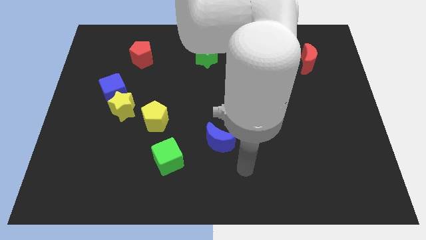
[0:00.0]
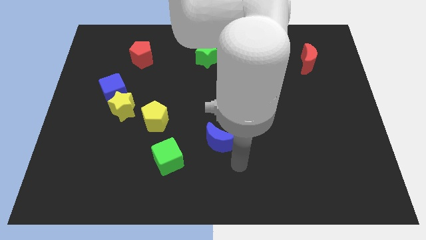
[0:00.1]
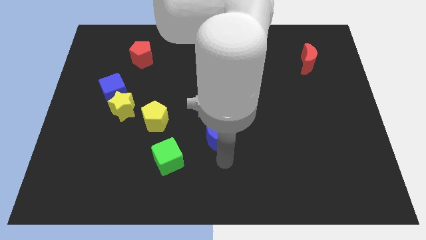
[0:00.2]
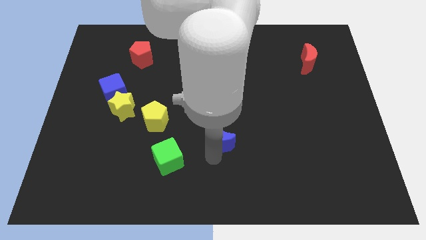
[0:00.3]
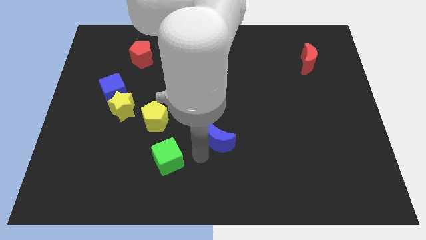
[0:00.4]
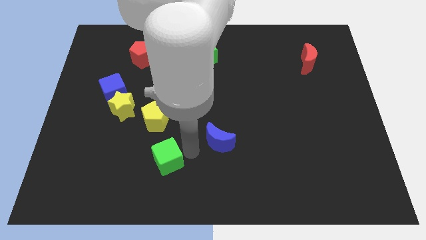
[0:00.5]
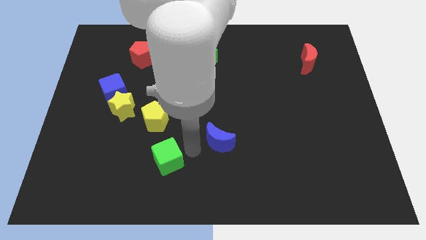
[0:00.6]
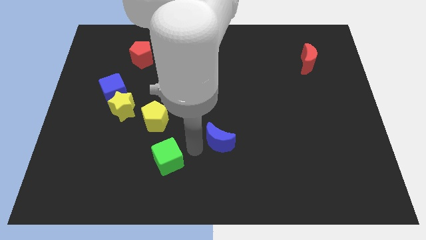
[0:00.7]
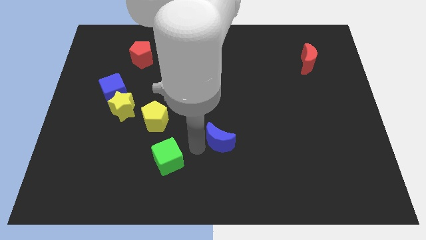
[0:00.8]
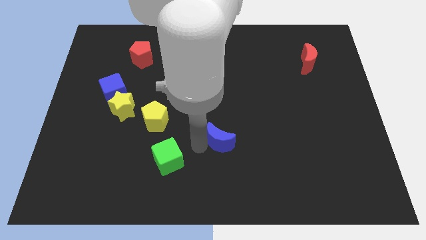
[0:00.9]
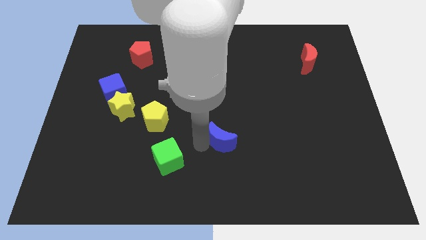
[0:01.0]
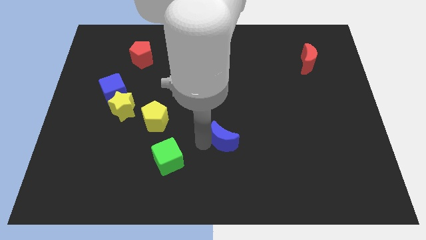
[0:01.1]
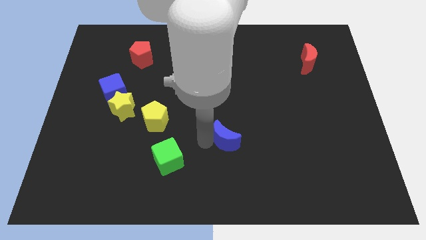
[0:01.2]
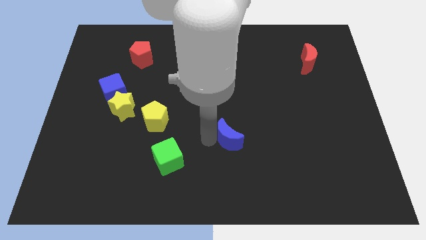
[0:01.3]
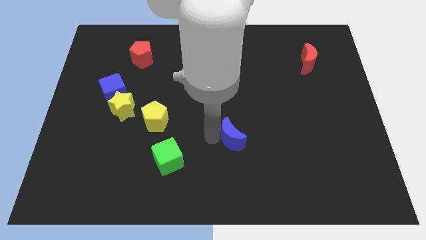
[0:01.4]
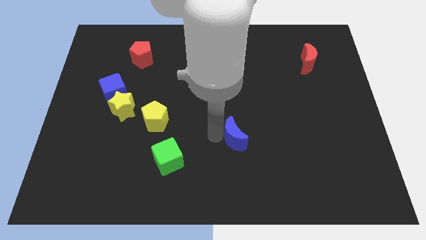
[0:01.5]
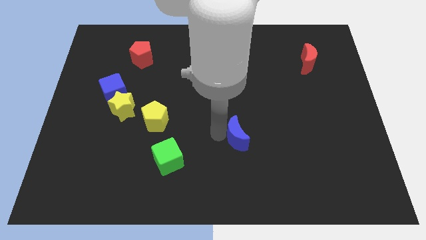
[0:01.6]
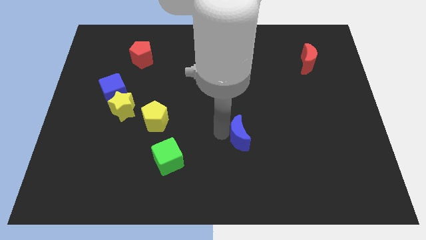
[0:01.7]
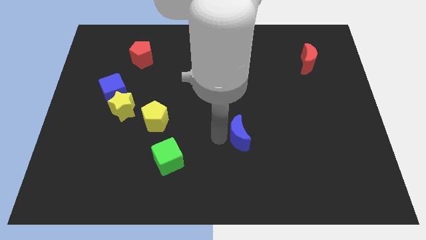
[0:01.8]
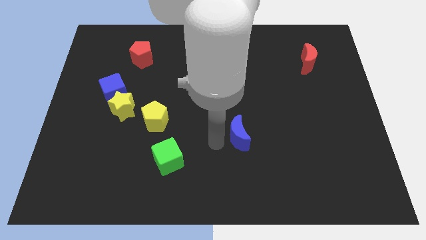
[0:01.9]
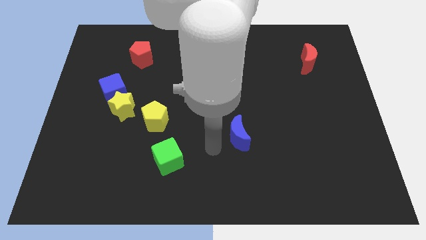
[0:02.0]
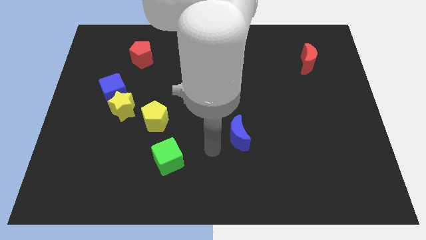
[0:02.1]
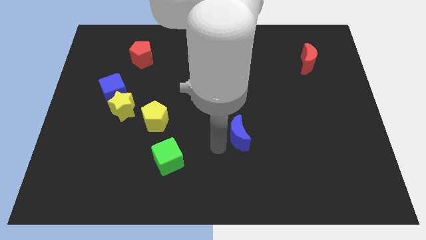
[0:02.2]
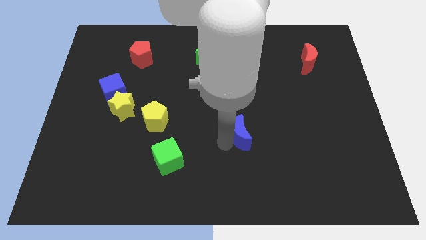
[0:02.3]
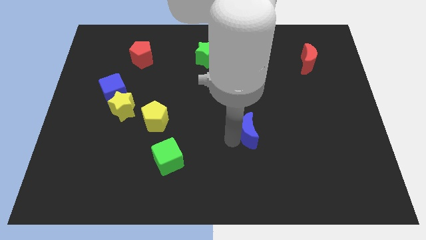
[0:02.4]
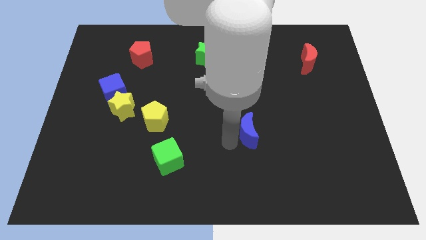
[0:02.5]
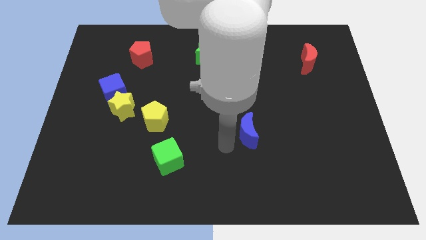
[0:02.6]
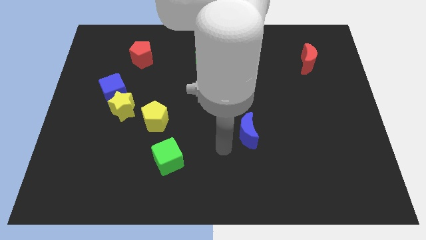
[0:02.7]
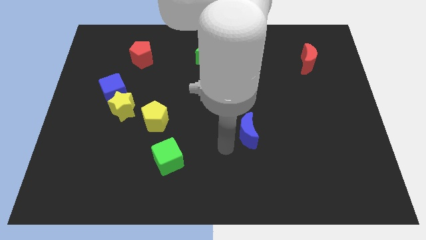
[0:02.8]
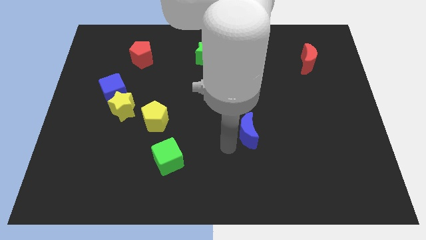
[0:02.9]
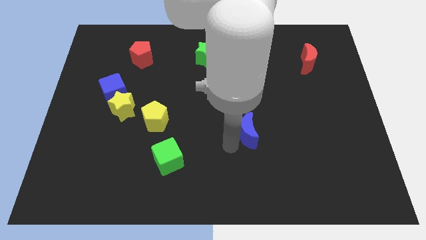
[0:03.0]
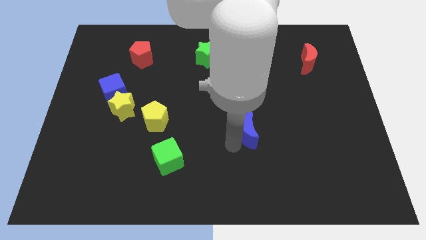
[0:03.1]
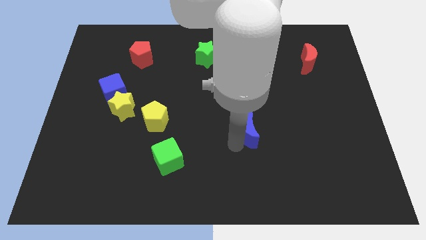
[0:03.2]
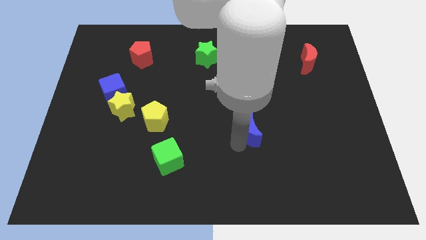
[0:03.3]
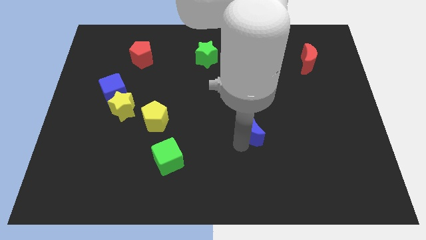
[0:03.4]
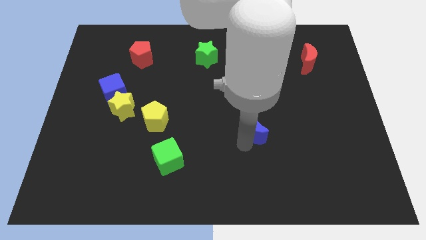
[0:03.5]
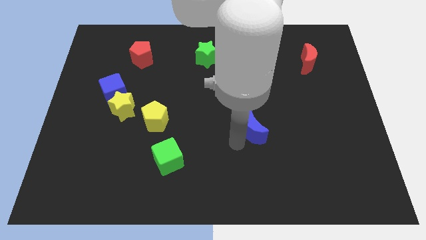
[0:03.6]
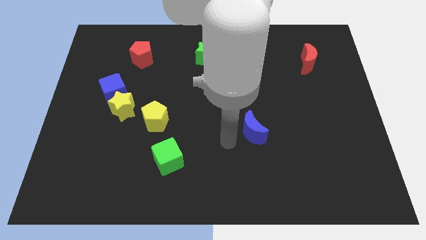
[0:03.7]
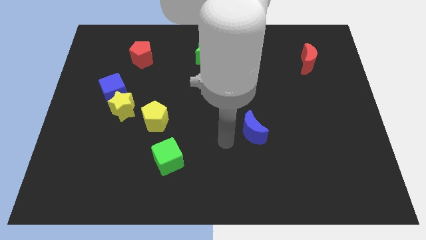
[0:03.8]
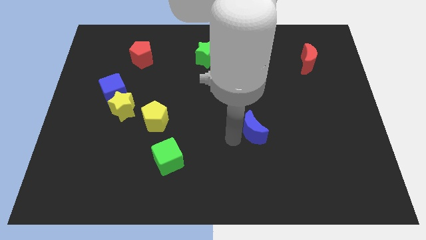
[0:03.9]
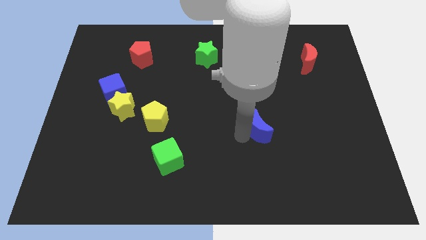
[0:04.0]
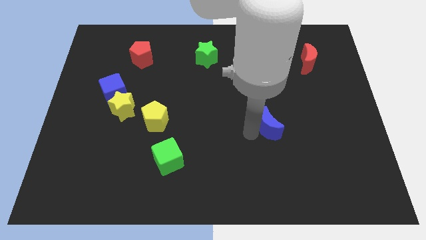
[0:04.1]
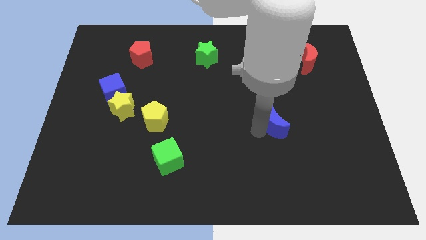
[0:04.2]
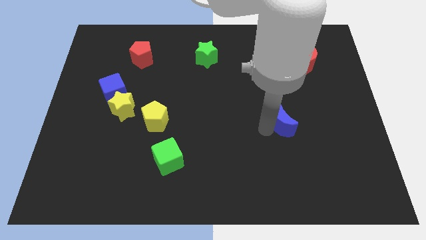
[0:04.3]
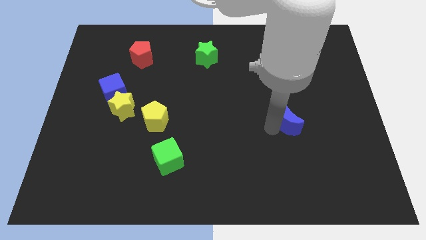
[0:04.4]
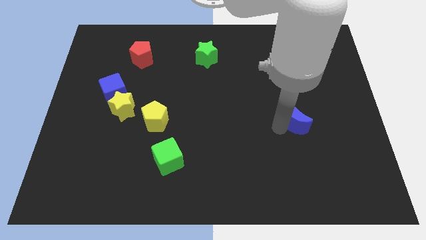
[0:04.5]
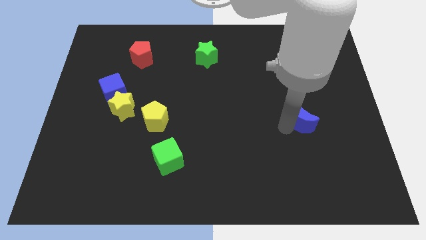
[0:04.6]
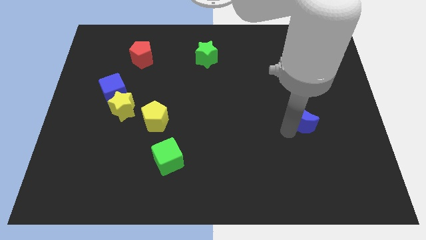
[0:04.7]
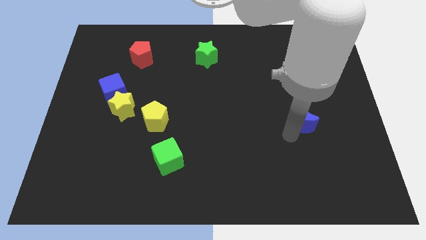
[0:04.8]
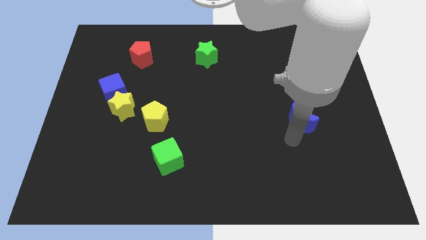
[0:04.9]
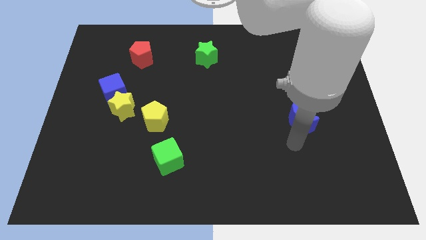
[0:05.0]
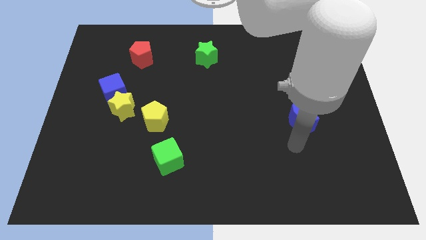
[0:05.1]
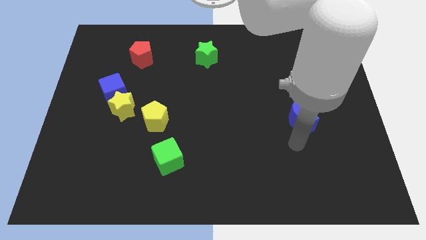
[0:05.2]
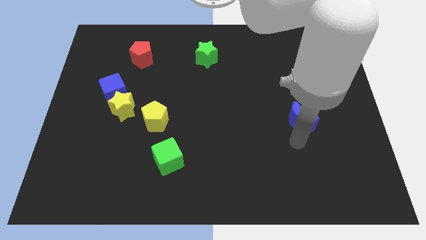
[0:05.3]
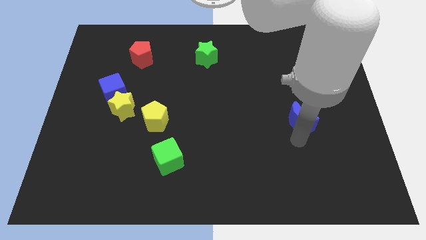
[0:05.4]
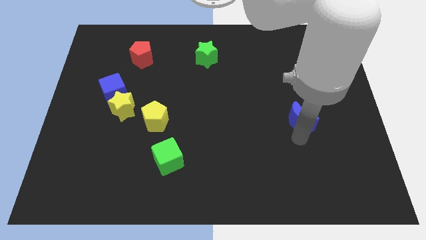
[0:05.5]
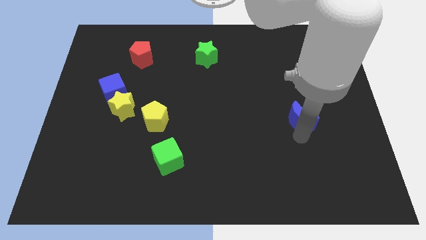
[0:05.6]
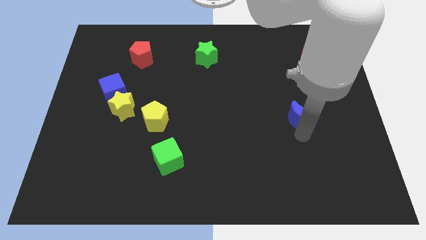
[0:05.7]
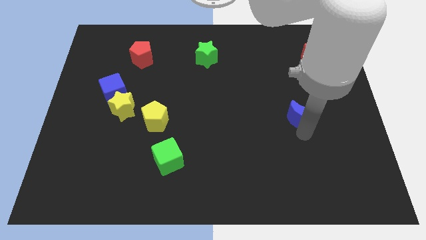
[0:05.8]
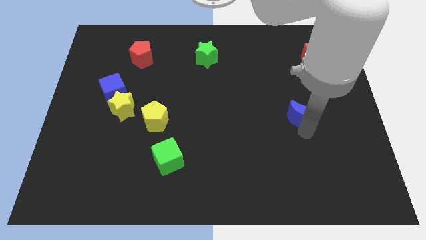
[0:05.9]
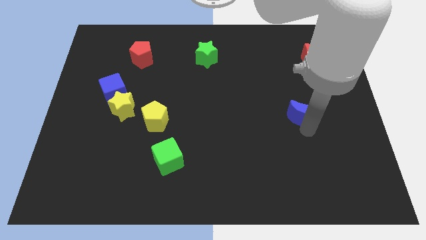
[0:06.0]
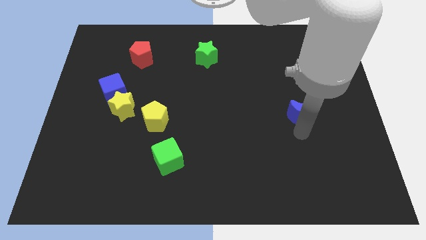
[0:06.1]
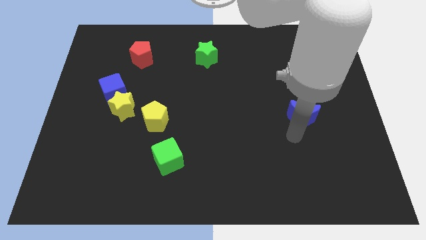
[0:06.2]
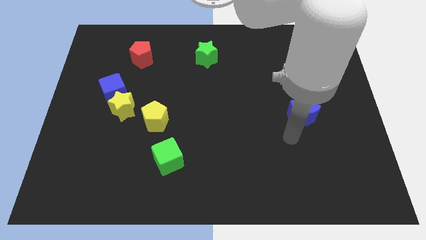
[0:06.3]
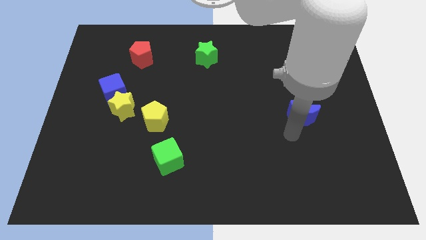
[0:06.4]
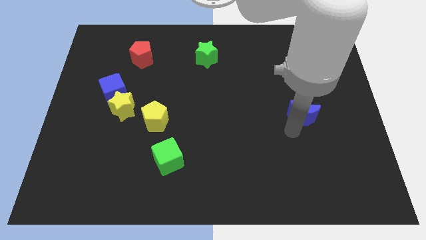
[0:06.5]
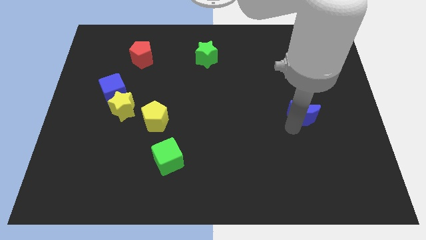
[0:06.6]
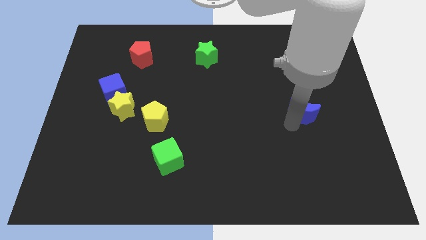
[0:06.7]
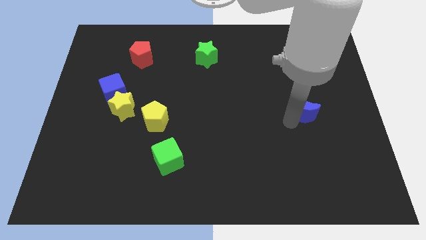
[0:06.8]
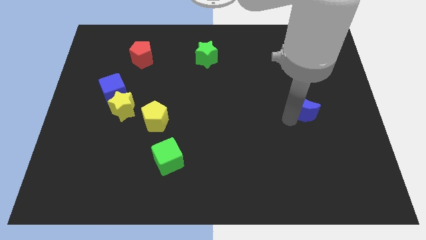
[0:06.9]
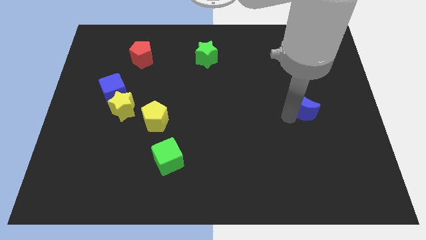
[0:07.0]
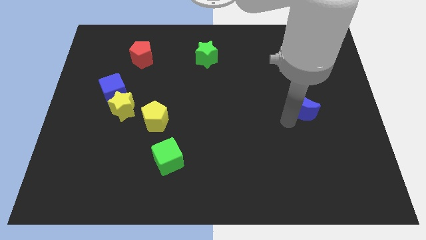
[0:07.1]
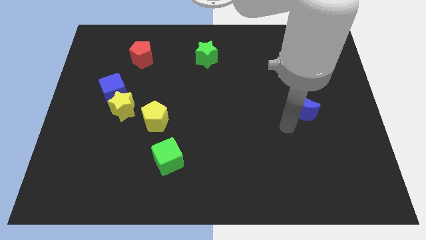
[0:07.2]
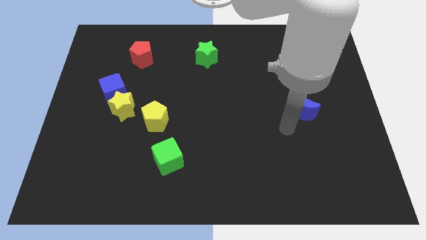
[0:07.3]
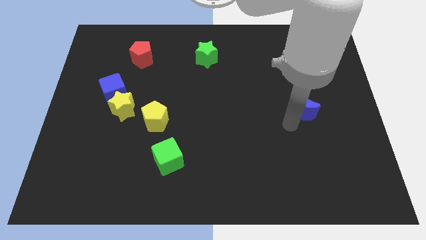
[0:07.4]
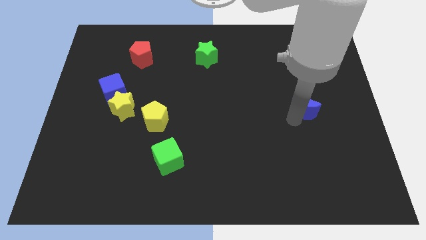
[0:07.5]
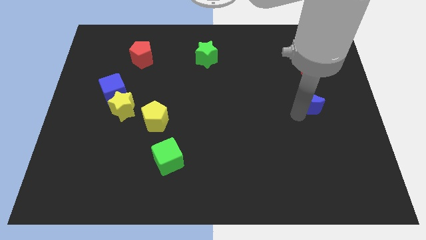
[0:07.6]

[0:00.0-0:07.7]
push the blue moon below the red moon
